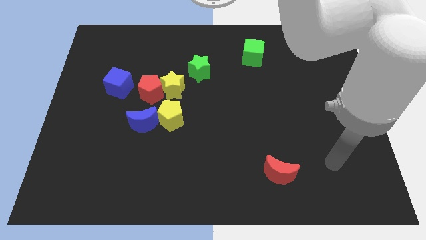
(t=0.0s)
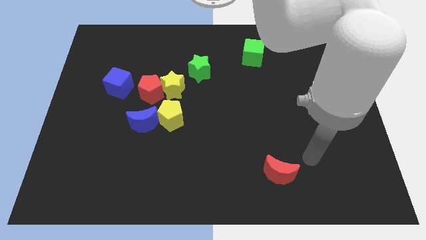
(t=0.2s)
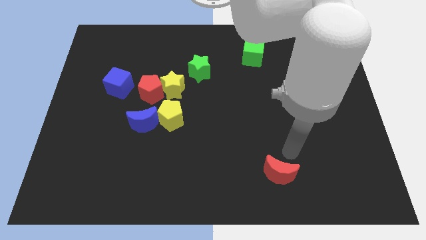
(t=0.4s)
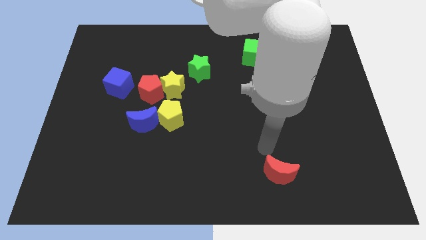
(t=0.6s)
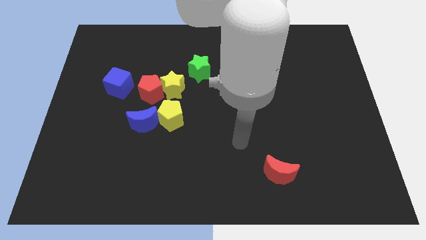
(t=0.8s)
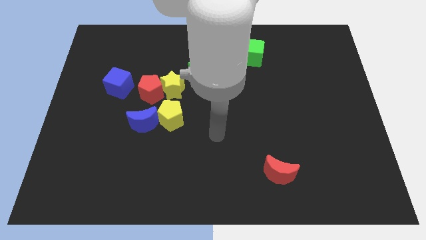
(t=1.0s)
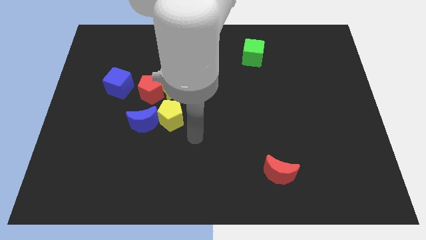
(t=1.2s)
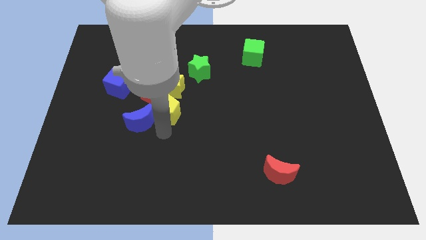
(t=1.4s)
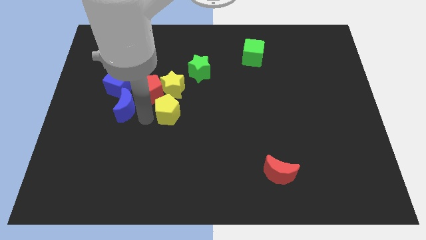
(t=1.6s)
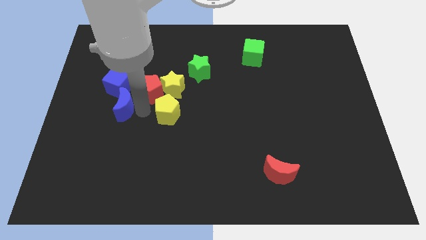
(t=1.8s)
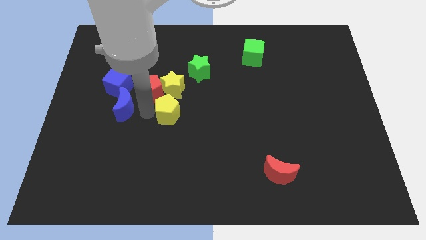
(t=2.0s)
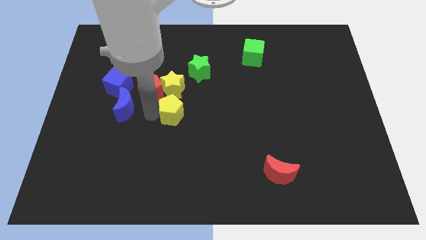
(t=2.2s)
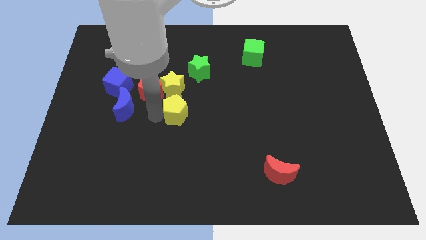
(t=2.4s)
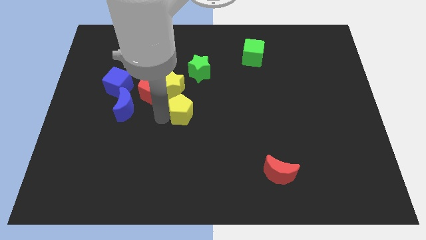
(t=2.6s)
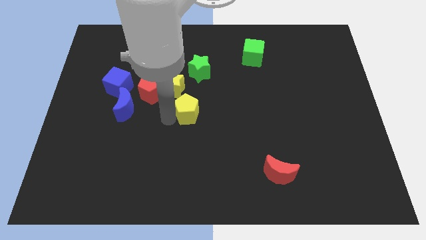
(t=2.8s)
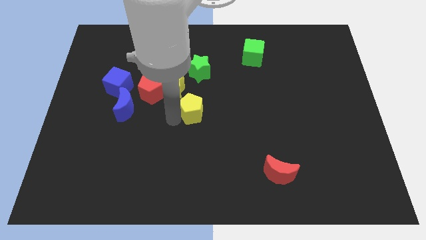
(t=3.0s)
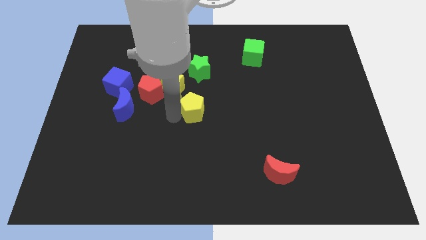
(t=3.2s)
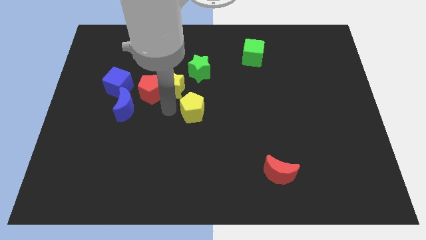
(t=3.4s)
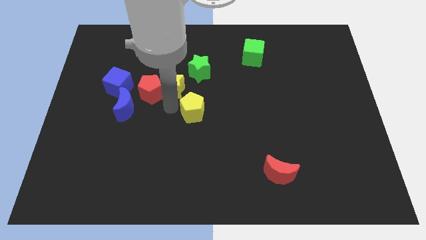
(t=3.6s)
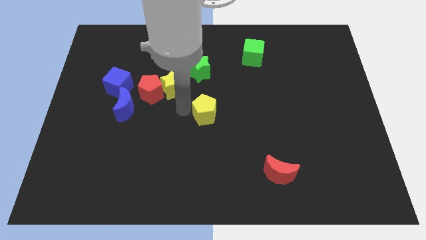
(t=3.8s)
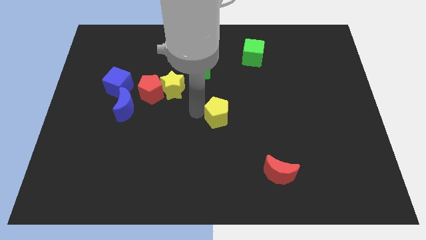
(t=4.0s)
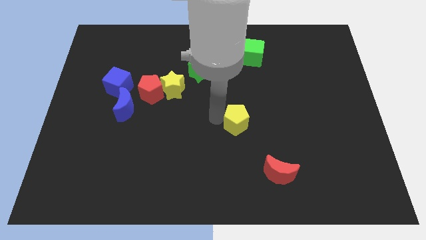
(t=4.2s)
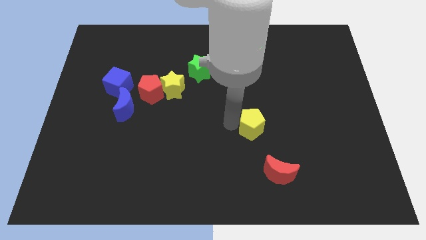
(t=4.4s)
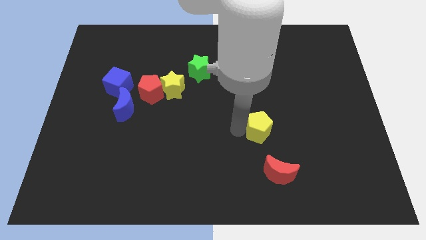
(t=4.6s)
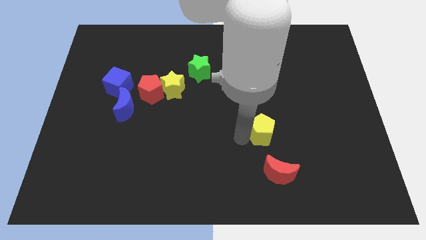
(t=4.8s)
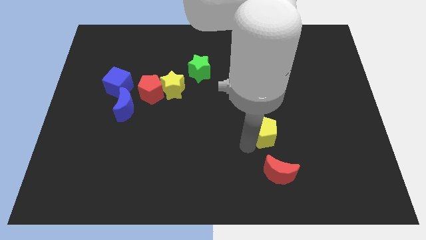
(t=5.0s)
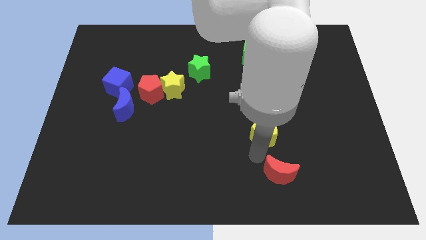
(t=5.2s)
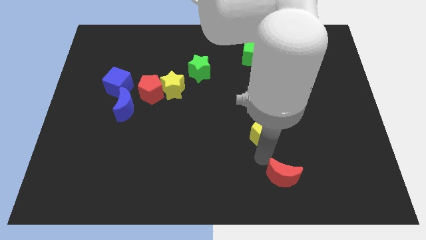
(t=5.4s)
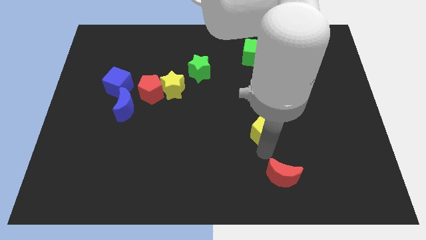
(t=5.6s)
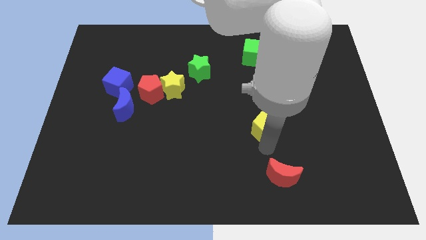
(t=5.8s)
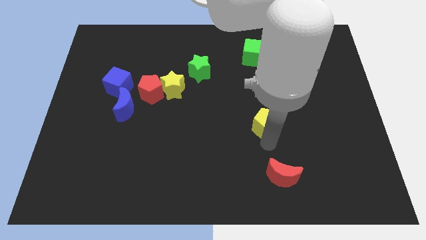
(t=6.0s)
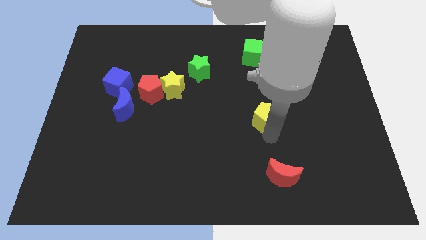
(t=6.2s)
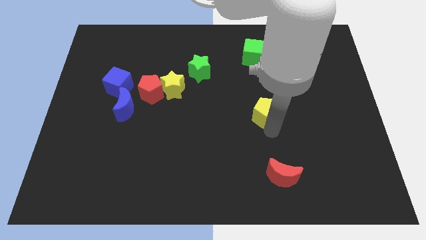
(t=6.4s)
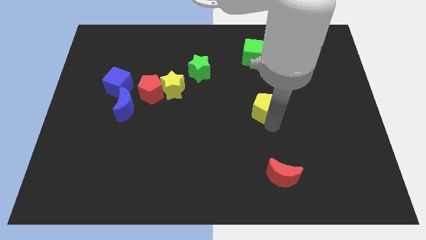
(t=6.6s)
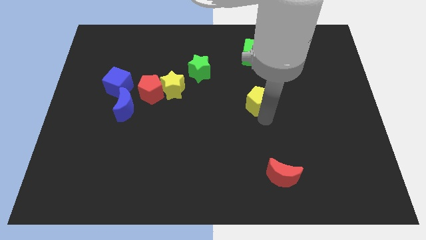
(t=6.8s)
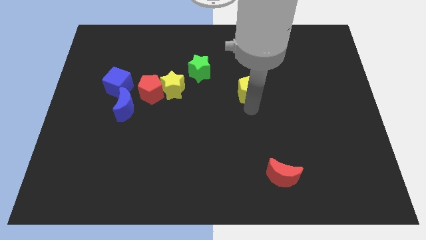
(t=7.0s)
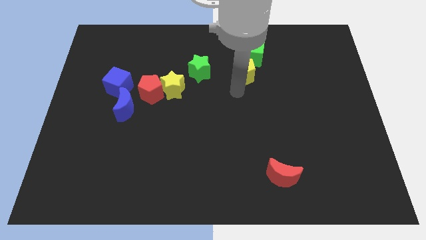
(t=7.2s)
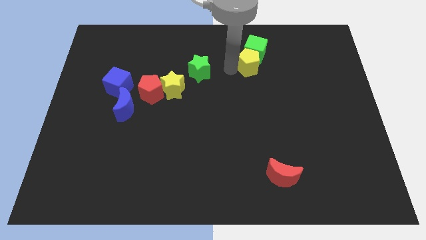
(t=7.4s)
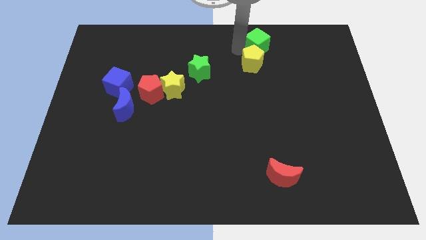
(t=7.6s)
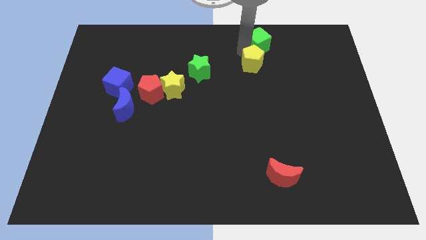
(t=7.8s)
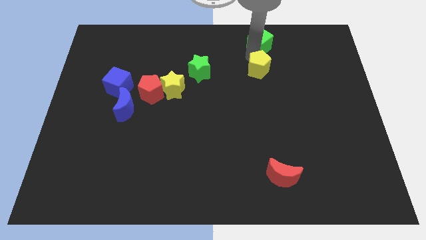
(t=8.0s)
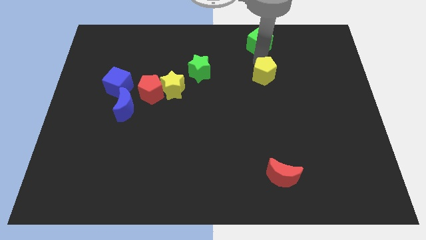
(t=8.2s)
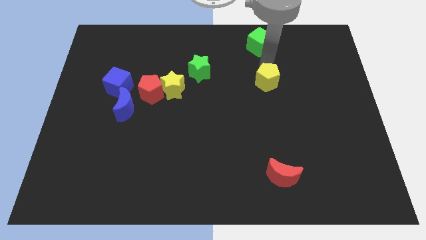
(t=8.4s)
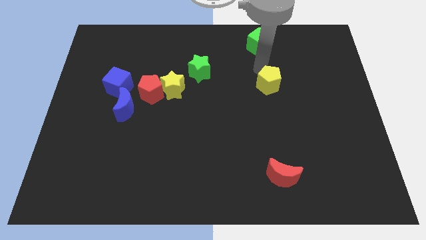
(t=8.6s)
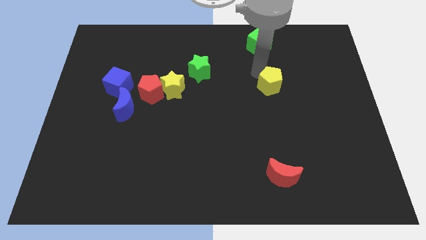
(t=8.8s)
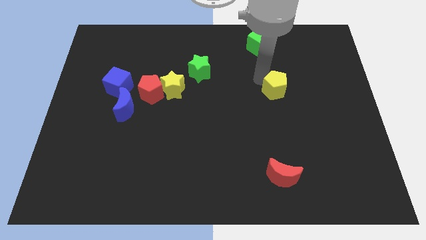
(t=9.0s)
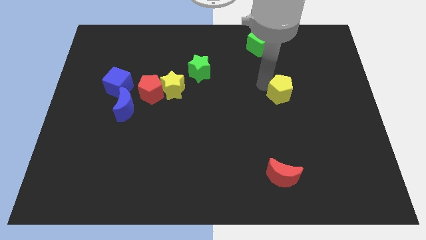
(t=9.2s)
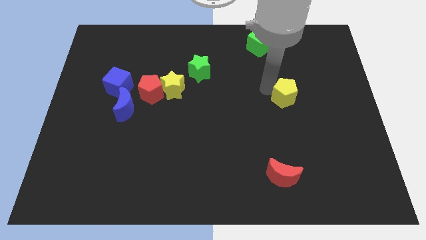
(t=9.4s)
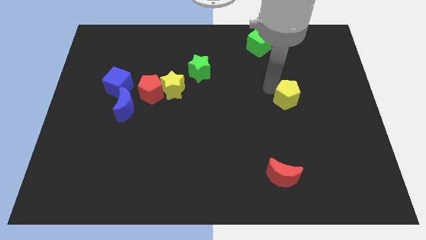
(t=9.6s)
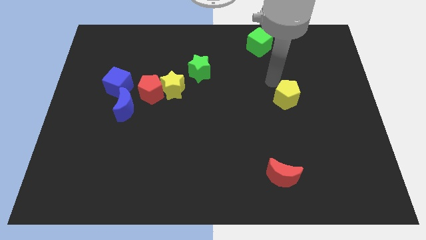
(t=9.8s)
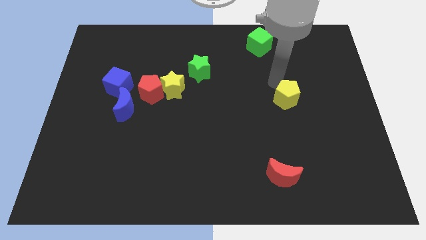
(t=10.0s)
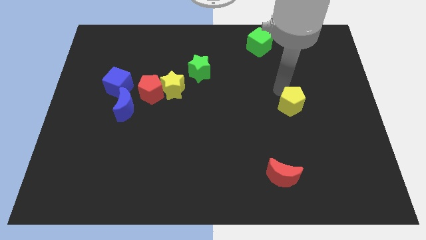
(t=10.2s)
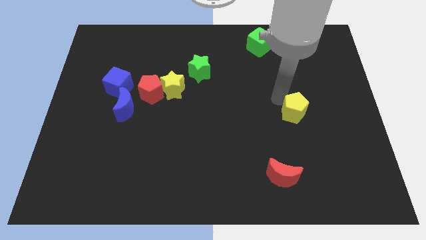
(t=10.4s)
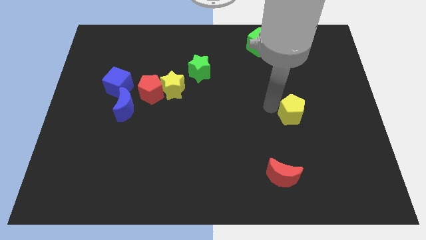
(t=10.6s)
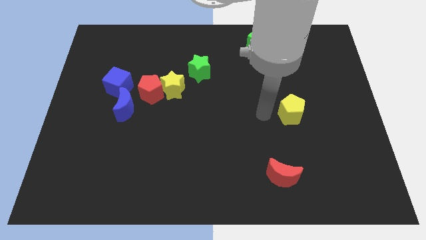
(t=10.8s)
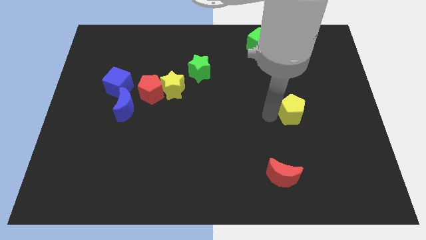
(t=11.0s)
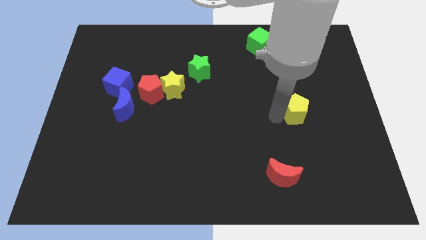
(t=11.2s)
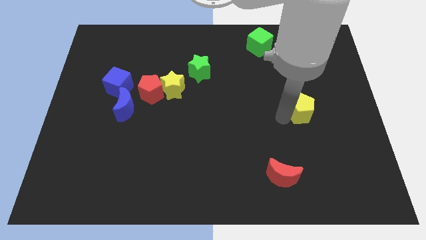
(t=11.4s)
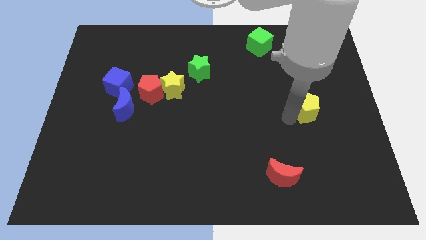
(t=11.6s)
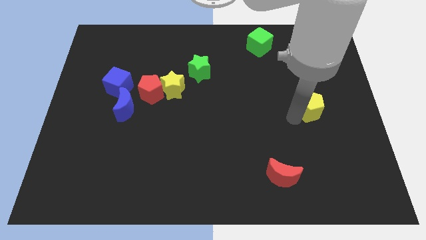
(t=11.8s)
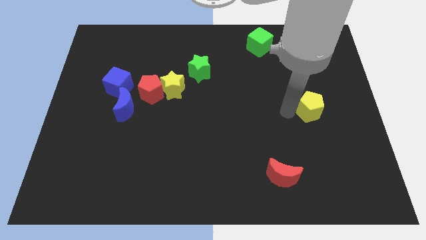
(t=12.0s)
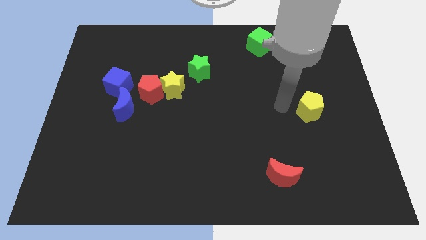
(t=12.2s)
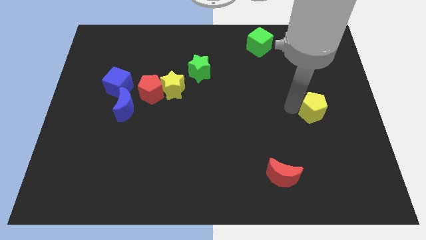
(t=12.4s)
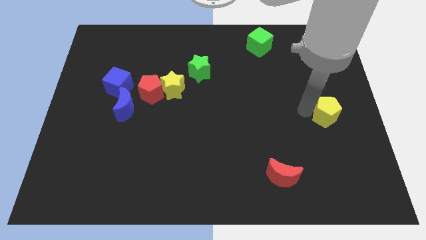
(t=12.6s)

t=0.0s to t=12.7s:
put the yellow pentagon to the right side of the board

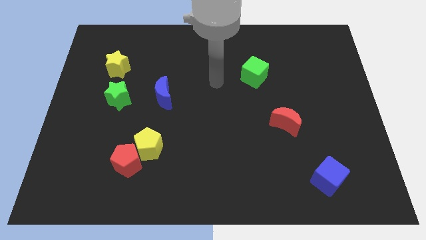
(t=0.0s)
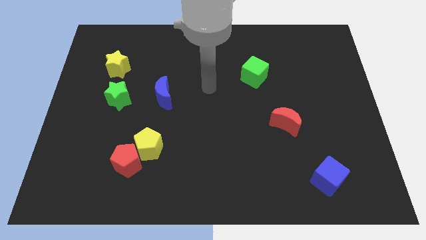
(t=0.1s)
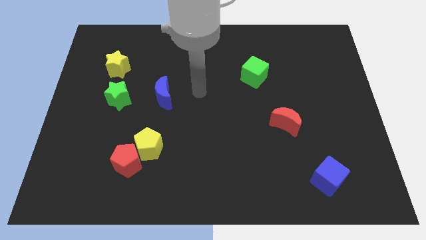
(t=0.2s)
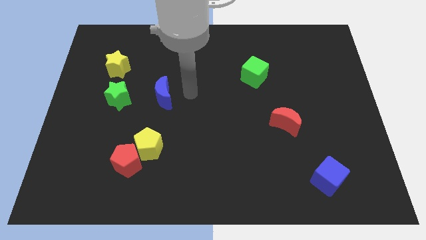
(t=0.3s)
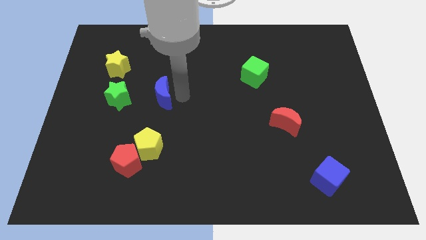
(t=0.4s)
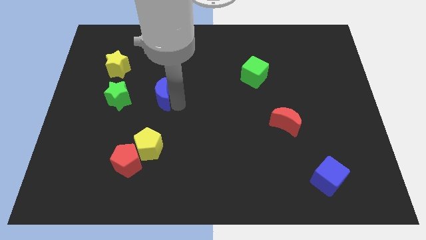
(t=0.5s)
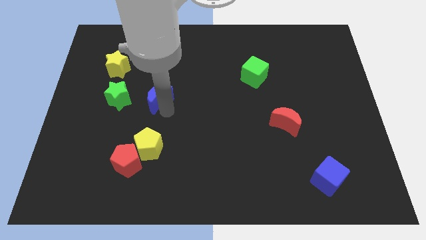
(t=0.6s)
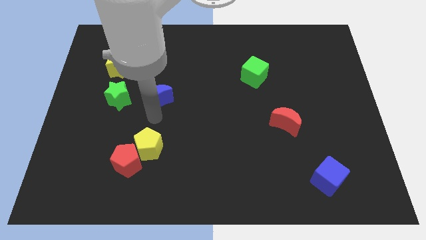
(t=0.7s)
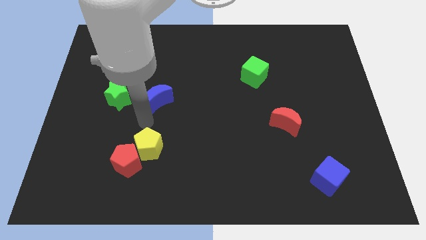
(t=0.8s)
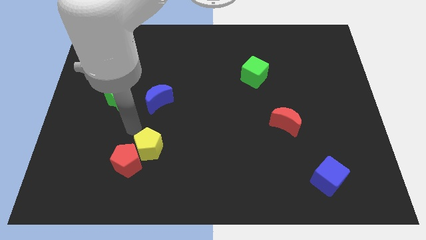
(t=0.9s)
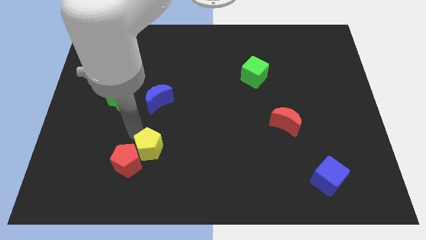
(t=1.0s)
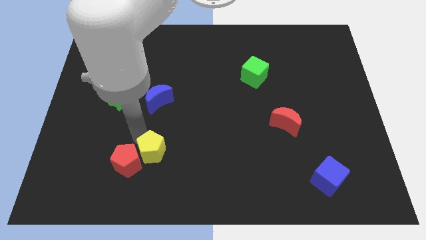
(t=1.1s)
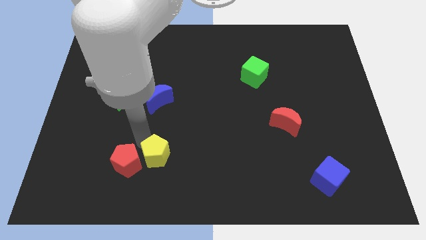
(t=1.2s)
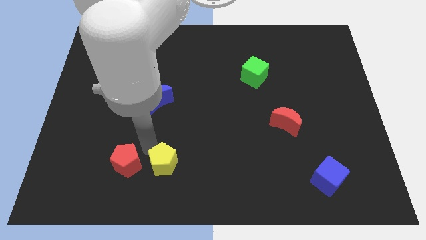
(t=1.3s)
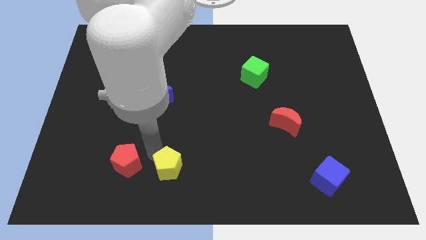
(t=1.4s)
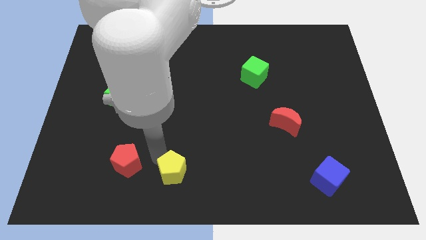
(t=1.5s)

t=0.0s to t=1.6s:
move the yellow pentagon to the bottom side
